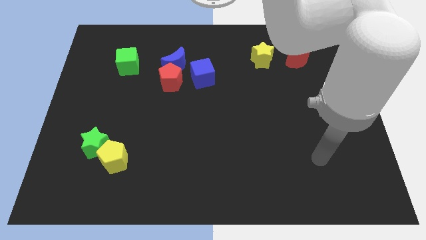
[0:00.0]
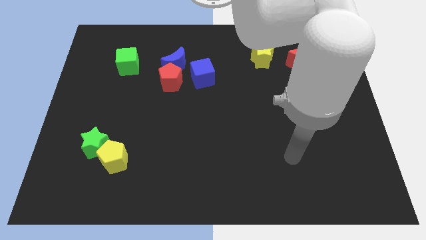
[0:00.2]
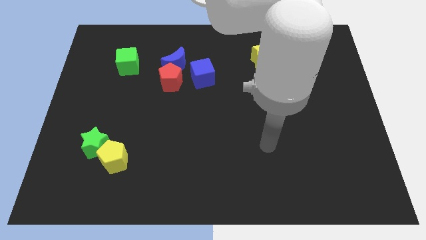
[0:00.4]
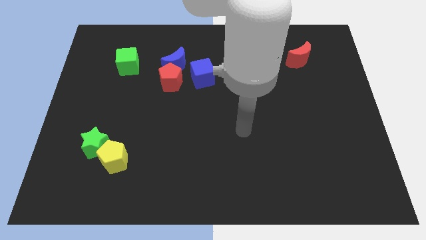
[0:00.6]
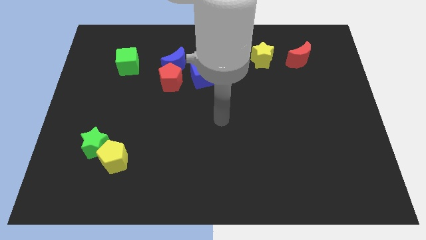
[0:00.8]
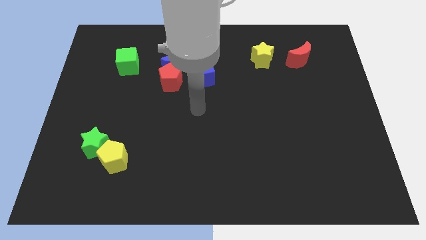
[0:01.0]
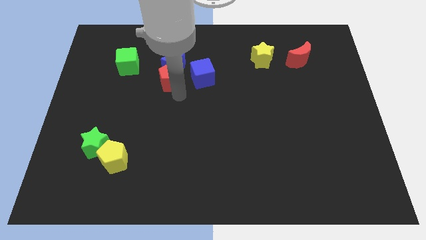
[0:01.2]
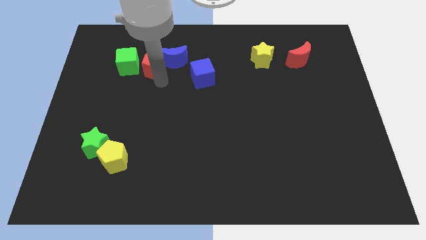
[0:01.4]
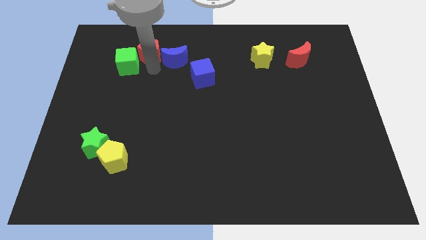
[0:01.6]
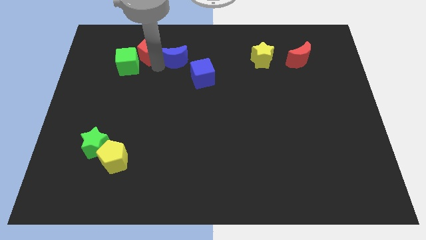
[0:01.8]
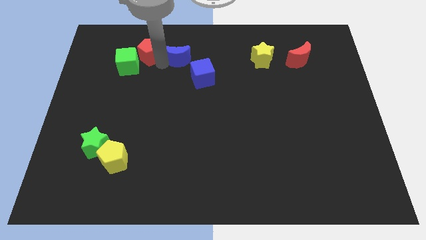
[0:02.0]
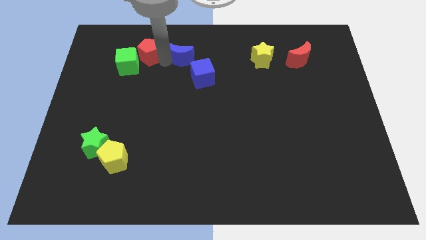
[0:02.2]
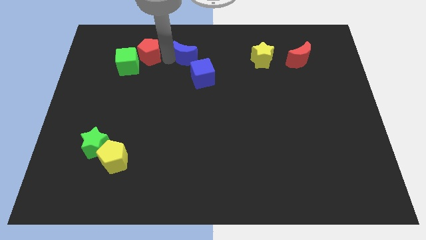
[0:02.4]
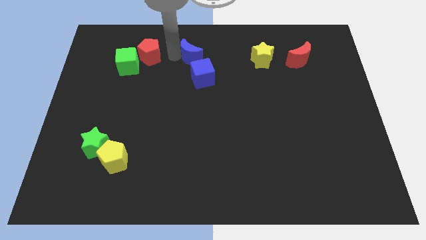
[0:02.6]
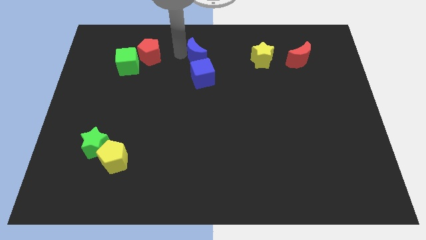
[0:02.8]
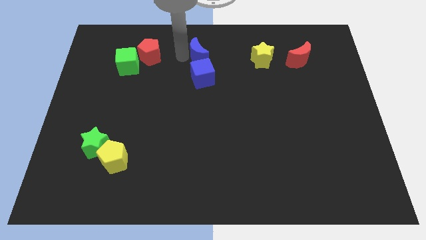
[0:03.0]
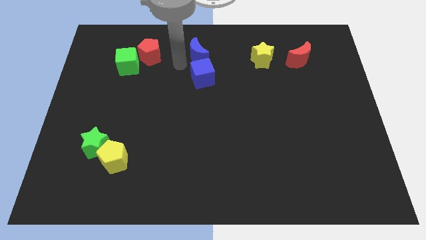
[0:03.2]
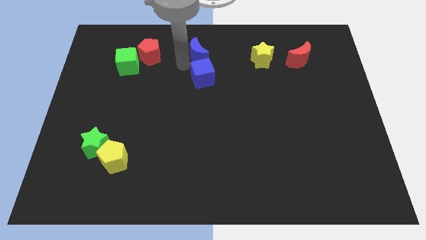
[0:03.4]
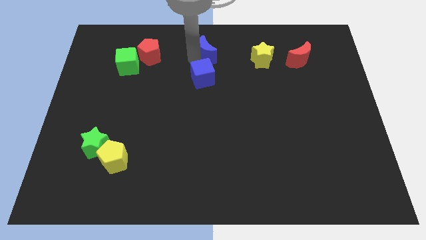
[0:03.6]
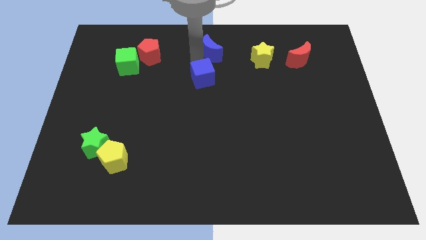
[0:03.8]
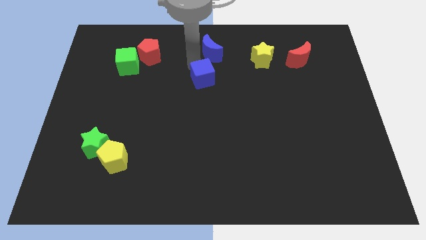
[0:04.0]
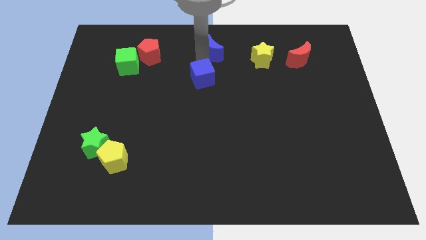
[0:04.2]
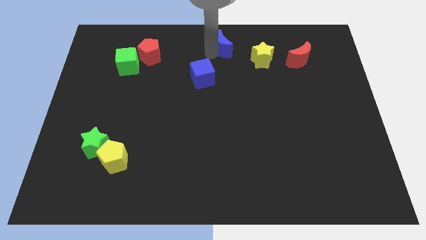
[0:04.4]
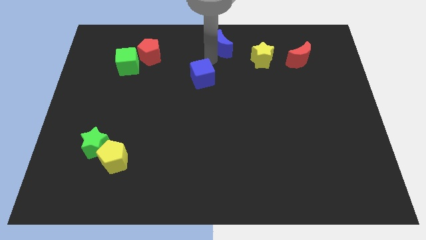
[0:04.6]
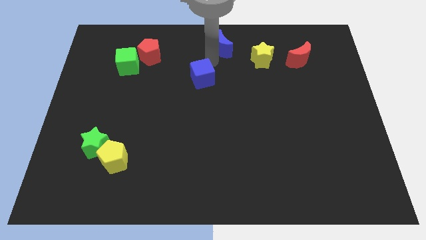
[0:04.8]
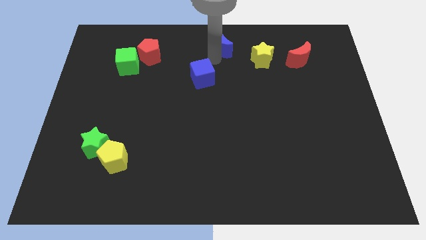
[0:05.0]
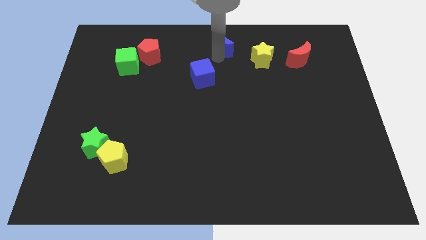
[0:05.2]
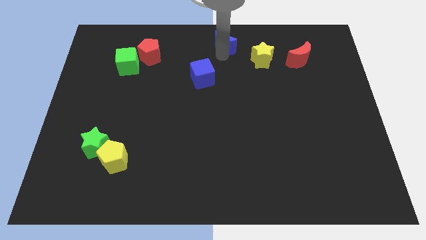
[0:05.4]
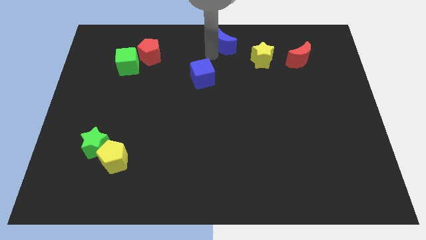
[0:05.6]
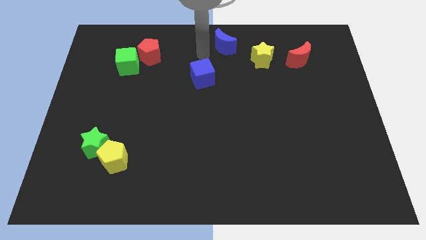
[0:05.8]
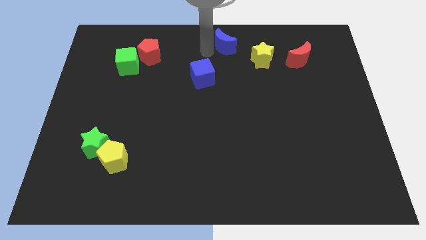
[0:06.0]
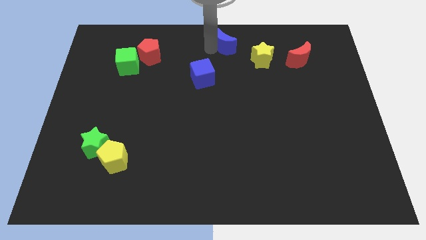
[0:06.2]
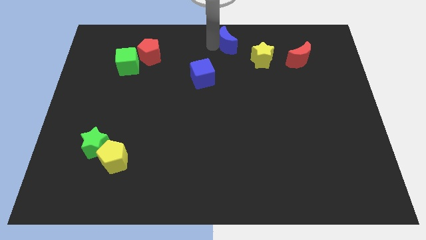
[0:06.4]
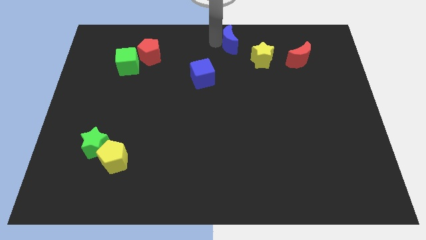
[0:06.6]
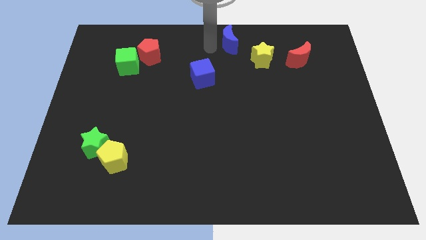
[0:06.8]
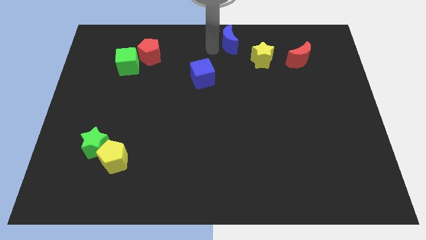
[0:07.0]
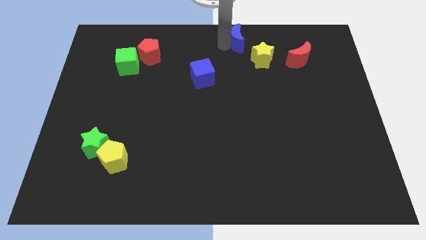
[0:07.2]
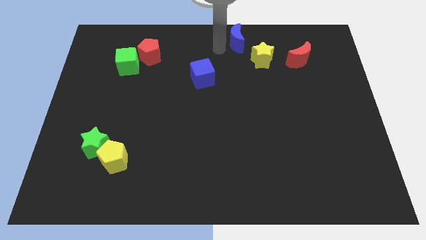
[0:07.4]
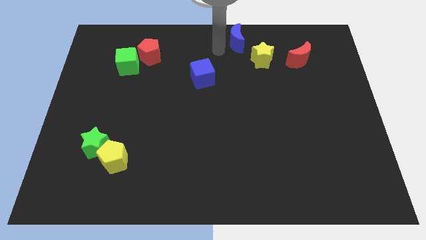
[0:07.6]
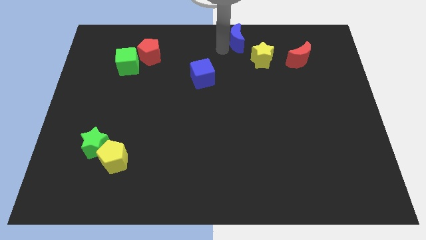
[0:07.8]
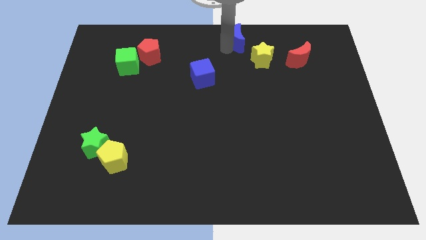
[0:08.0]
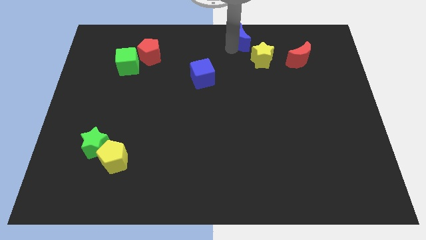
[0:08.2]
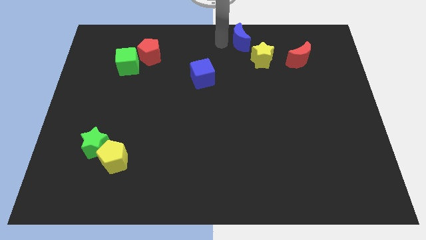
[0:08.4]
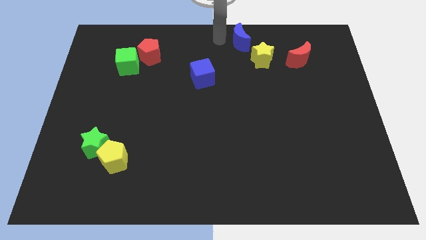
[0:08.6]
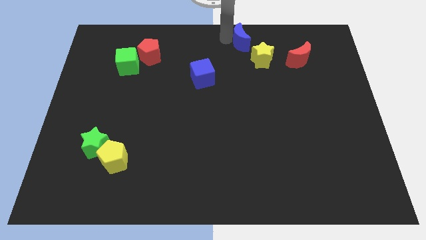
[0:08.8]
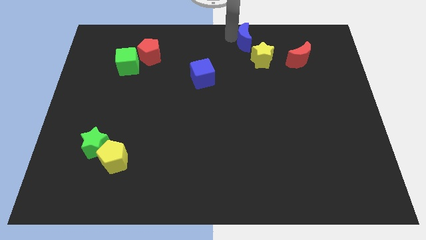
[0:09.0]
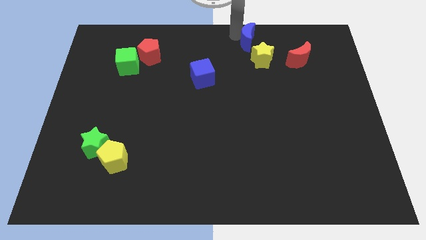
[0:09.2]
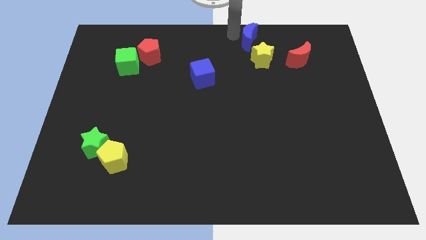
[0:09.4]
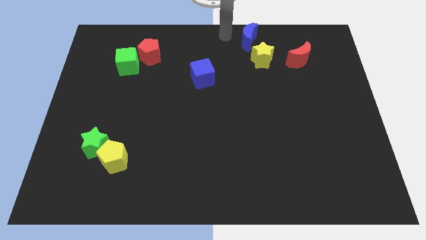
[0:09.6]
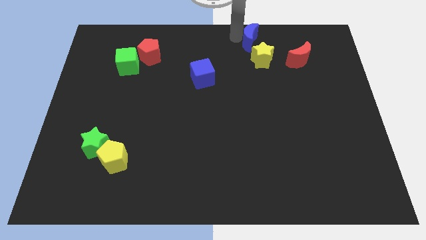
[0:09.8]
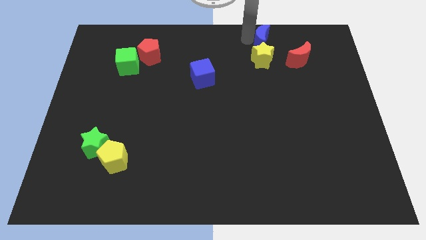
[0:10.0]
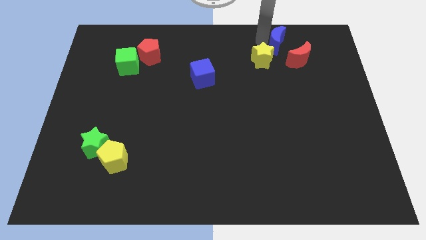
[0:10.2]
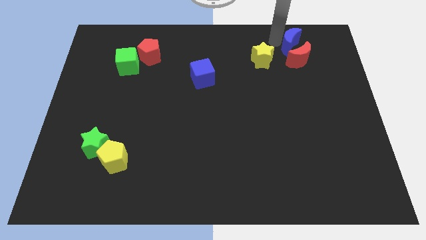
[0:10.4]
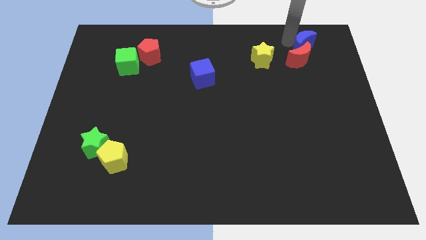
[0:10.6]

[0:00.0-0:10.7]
move the blue moon to the right of the yellow star

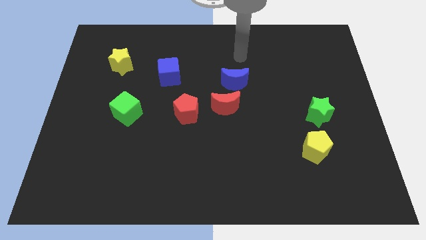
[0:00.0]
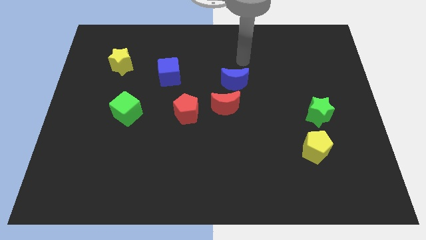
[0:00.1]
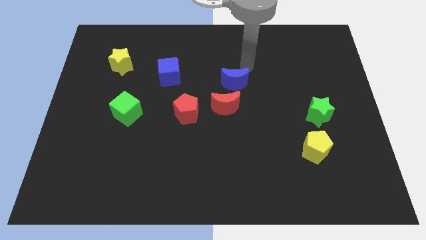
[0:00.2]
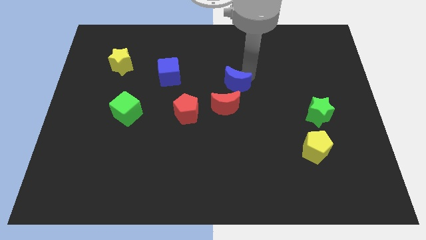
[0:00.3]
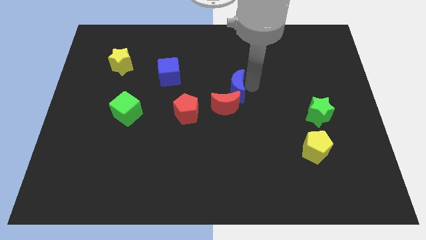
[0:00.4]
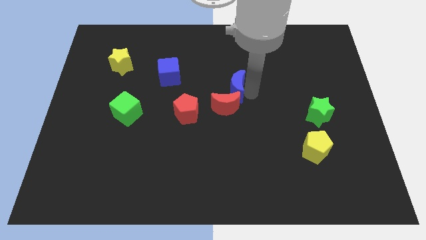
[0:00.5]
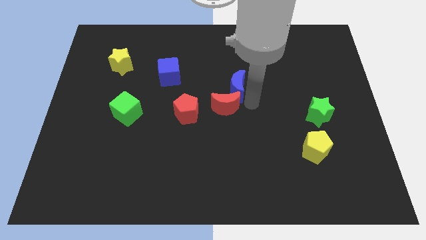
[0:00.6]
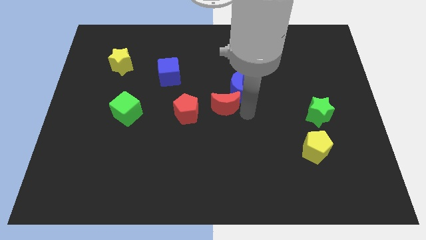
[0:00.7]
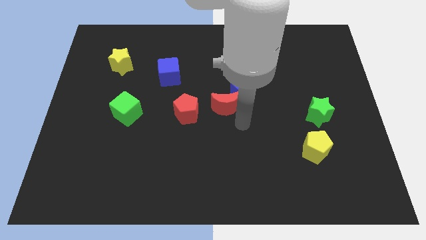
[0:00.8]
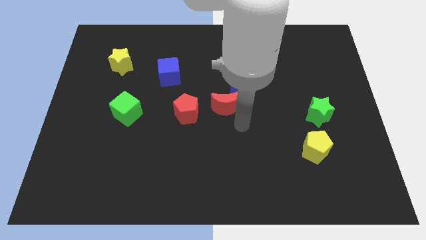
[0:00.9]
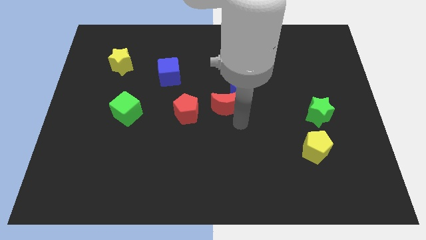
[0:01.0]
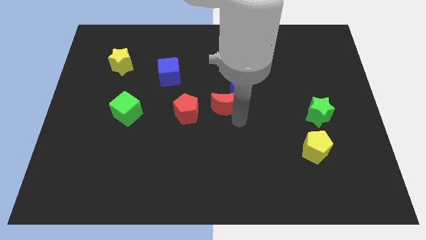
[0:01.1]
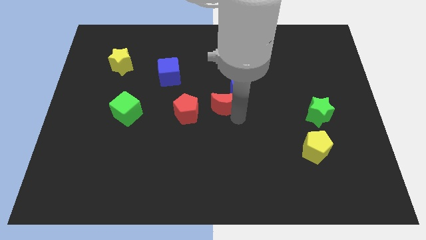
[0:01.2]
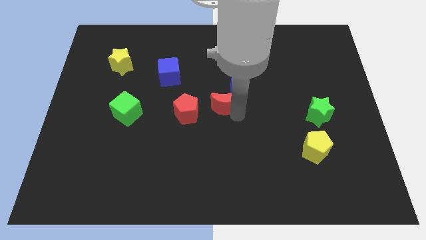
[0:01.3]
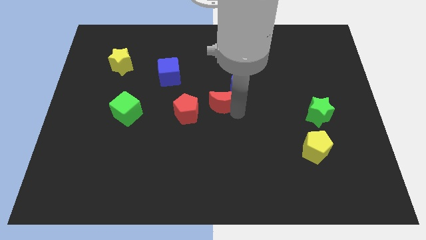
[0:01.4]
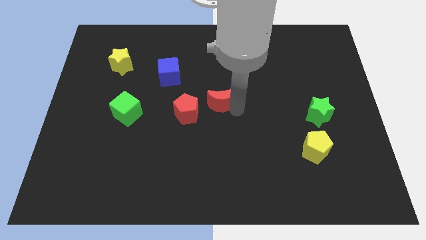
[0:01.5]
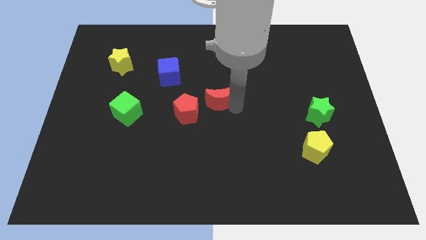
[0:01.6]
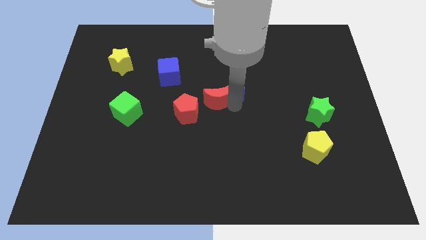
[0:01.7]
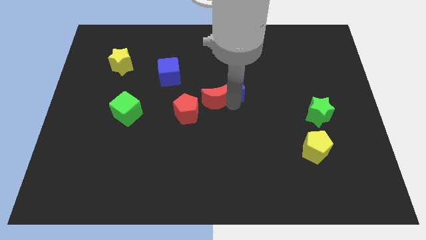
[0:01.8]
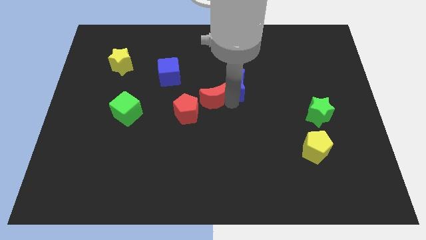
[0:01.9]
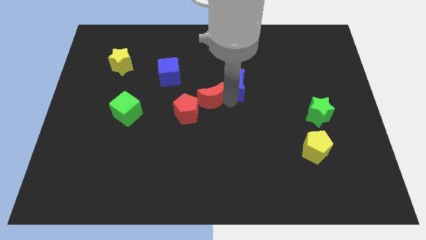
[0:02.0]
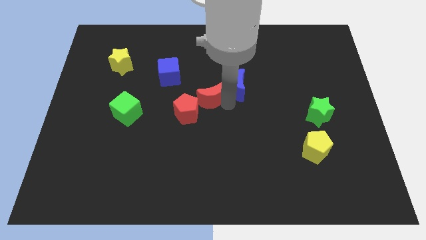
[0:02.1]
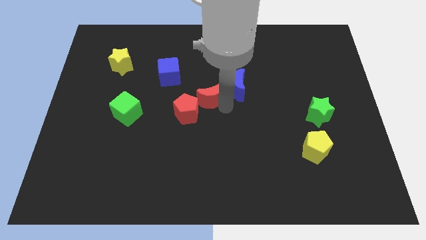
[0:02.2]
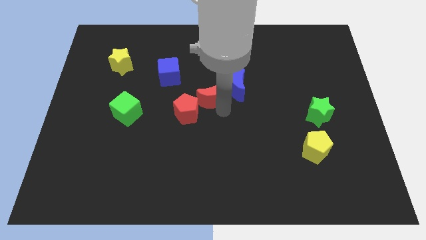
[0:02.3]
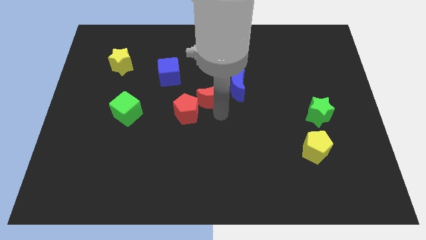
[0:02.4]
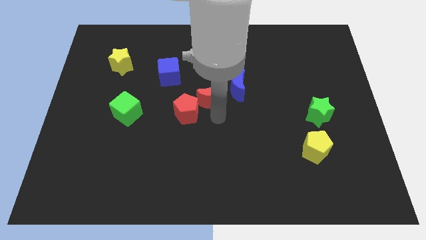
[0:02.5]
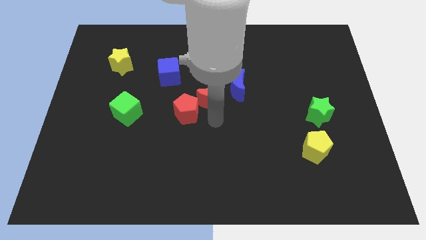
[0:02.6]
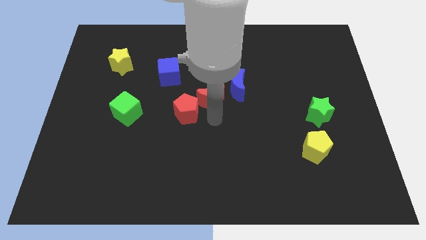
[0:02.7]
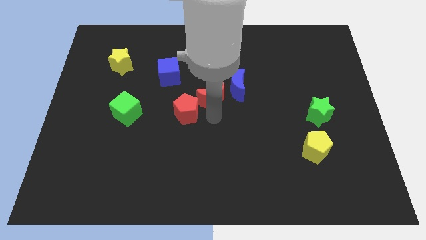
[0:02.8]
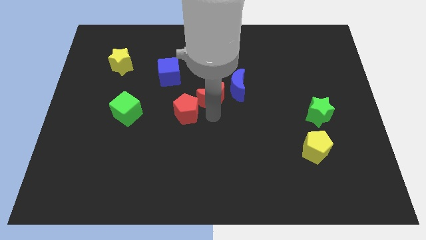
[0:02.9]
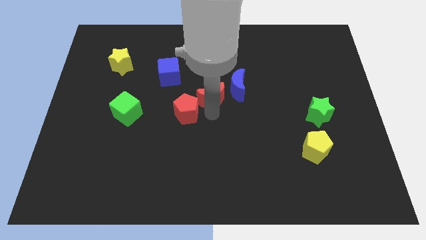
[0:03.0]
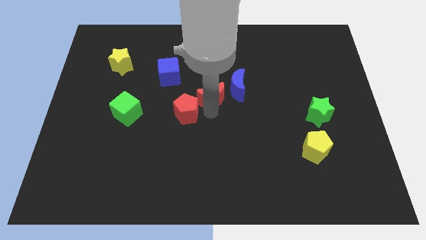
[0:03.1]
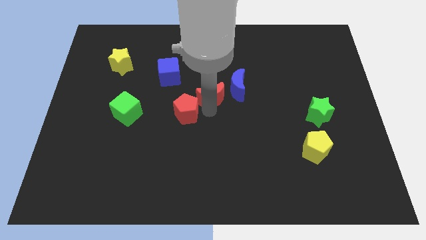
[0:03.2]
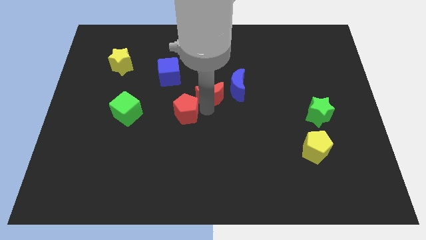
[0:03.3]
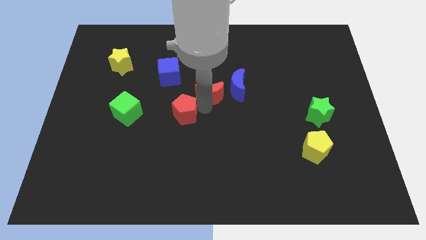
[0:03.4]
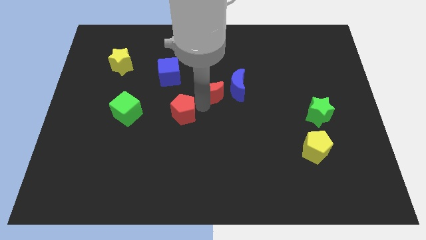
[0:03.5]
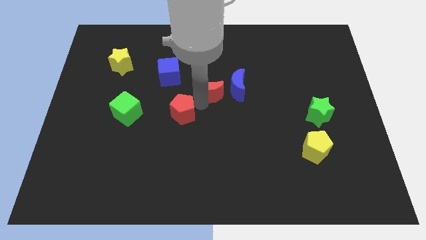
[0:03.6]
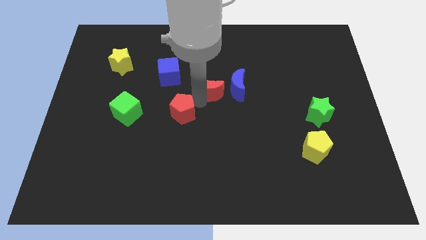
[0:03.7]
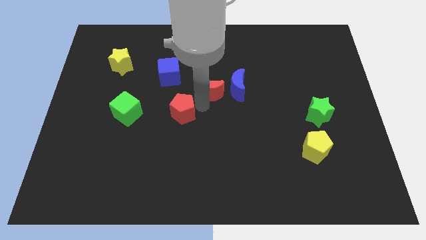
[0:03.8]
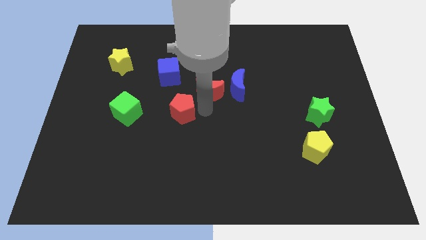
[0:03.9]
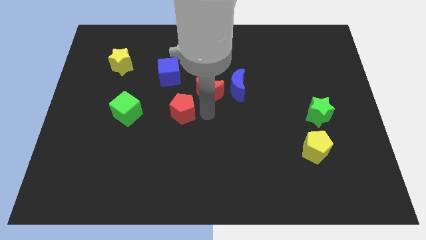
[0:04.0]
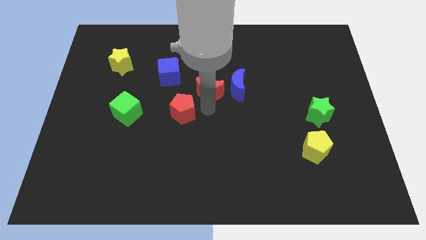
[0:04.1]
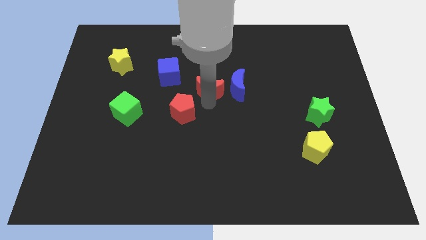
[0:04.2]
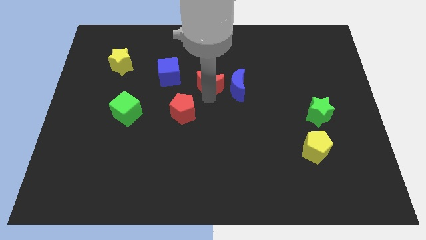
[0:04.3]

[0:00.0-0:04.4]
put the red moon just right of the blue cube
